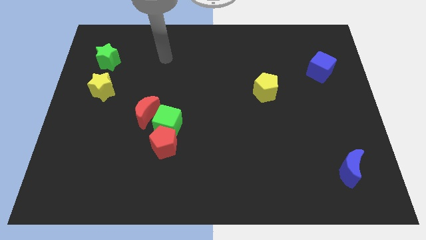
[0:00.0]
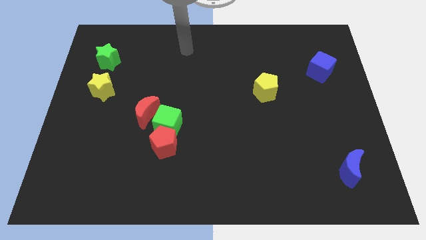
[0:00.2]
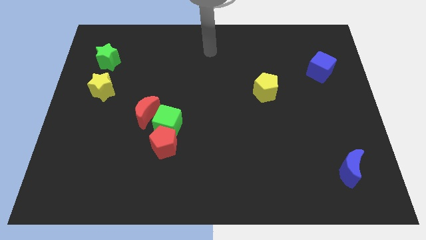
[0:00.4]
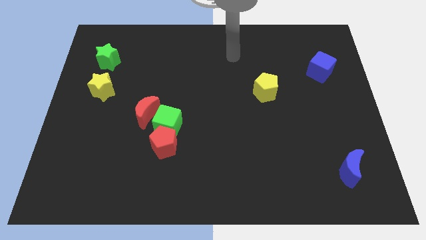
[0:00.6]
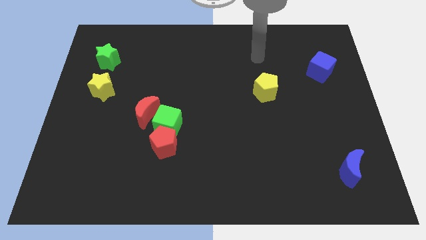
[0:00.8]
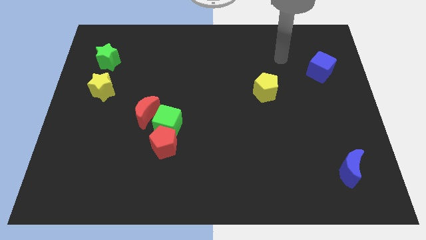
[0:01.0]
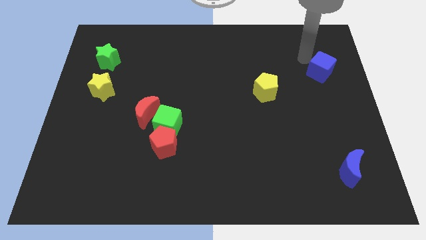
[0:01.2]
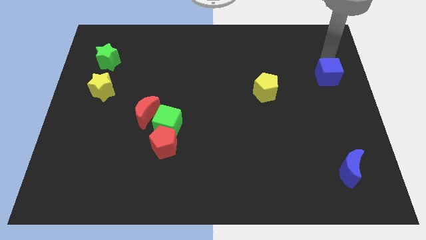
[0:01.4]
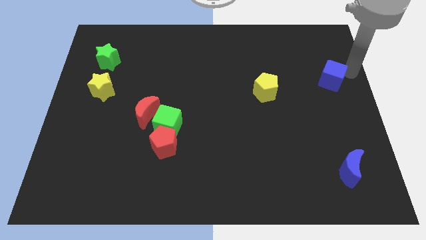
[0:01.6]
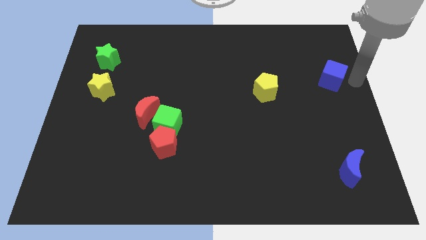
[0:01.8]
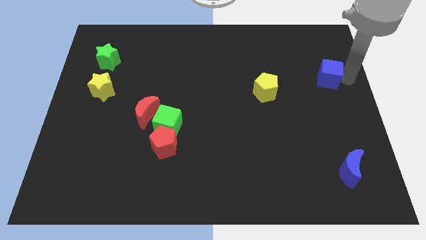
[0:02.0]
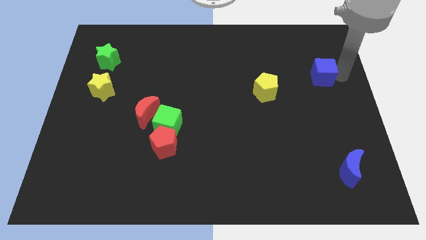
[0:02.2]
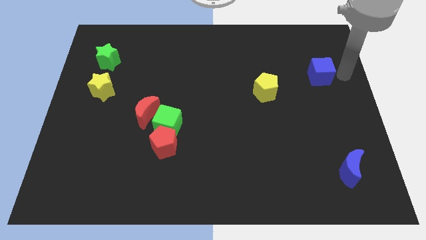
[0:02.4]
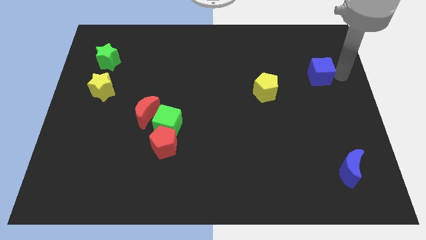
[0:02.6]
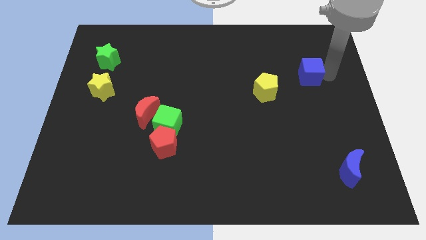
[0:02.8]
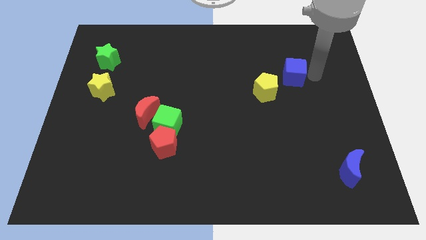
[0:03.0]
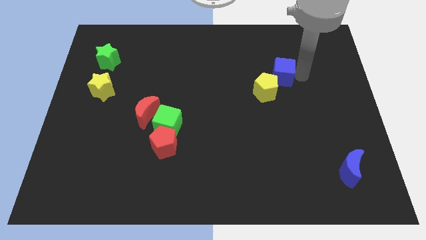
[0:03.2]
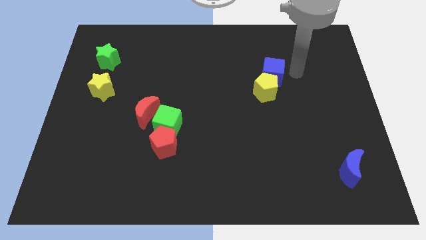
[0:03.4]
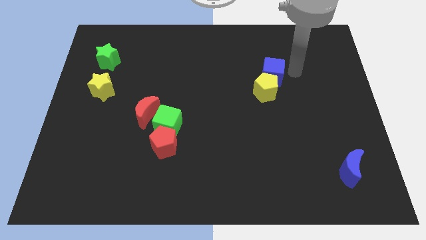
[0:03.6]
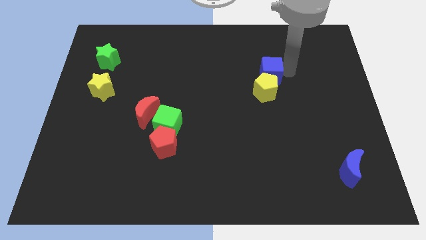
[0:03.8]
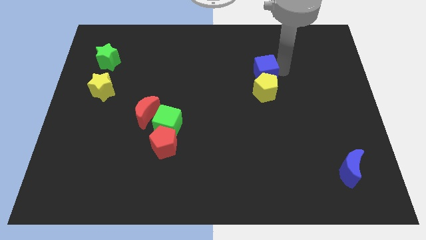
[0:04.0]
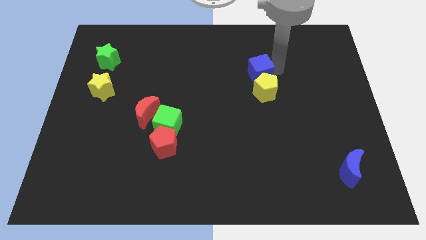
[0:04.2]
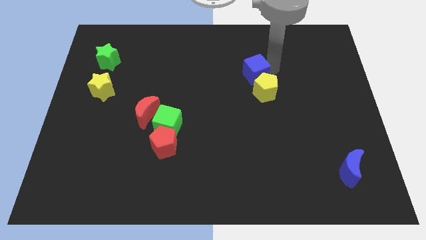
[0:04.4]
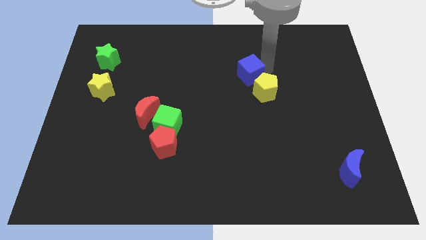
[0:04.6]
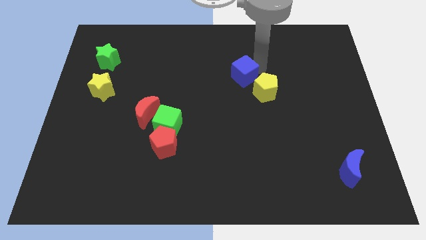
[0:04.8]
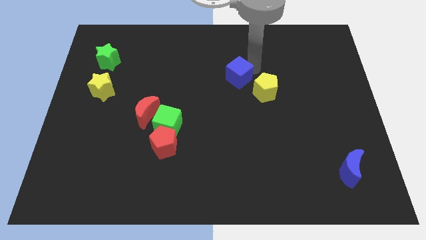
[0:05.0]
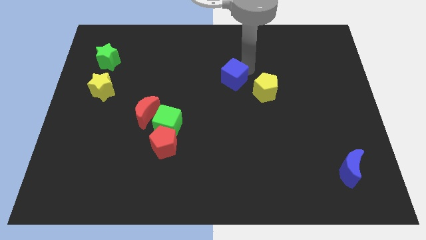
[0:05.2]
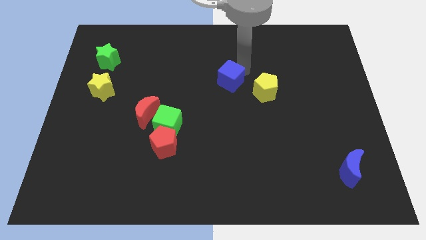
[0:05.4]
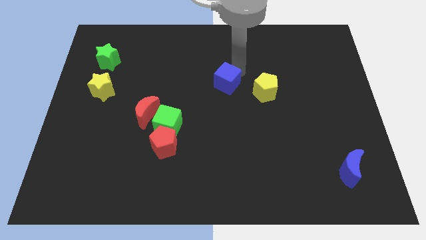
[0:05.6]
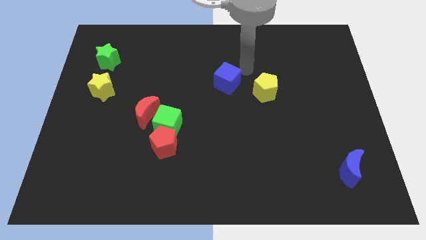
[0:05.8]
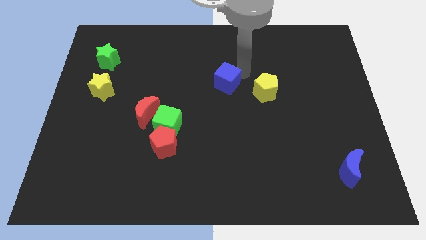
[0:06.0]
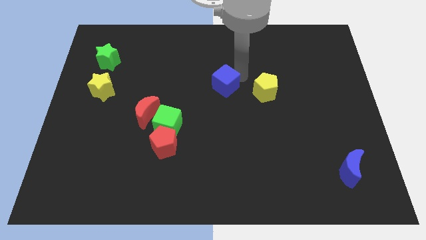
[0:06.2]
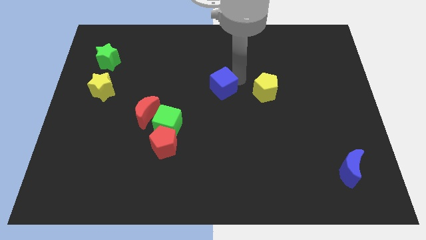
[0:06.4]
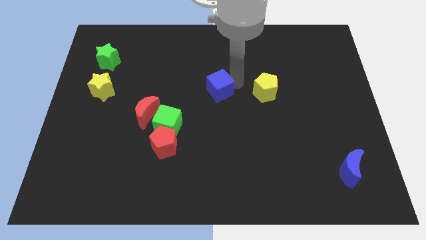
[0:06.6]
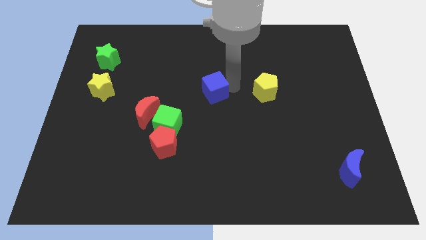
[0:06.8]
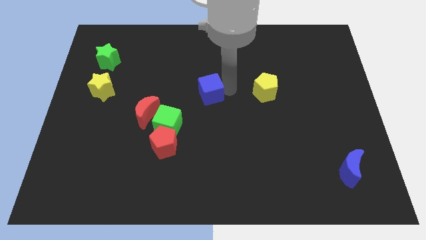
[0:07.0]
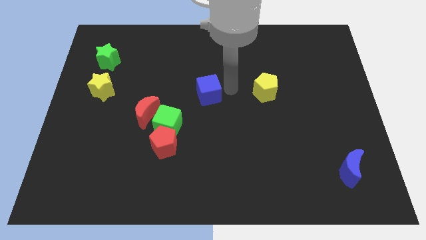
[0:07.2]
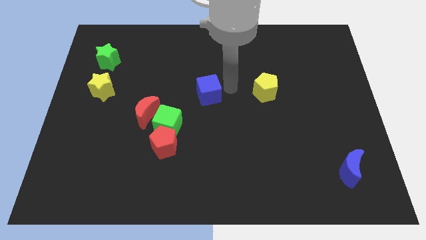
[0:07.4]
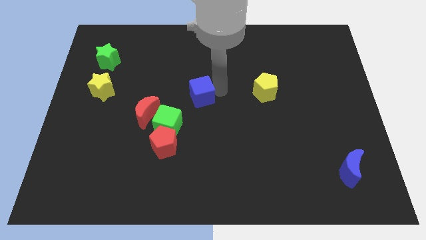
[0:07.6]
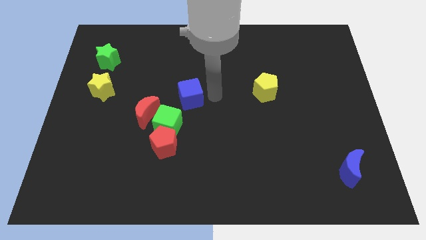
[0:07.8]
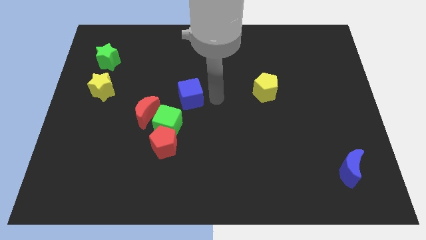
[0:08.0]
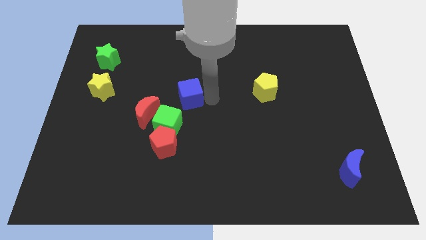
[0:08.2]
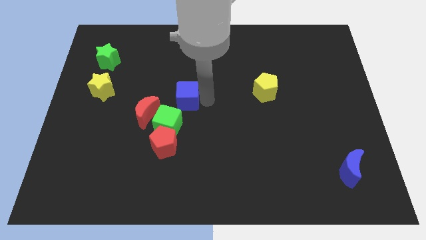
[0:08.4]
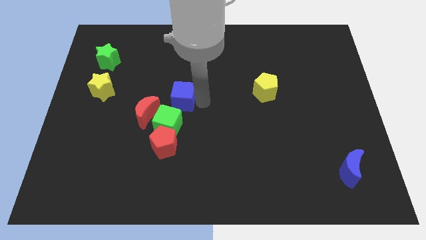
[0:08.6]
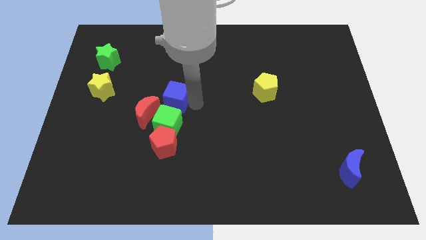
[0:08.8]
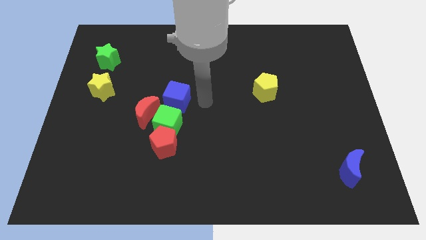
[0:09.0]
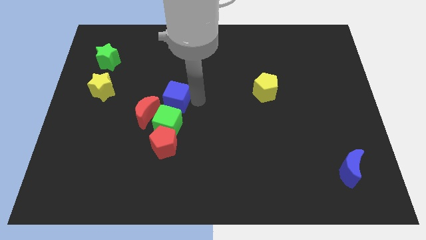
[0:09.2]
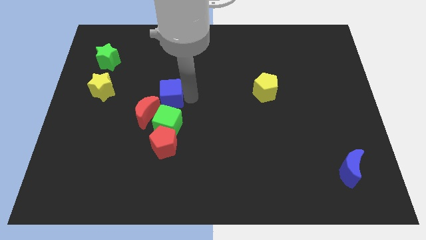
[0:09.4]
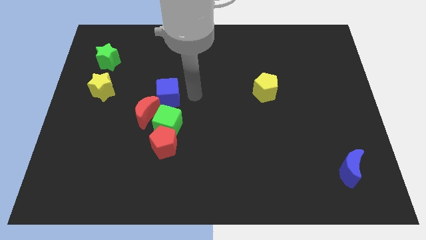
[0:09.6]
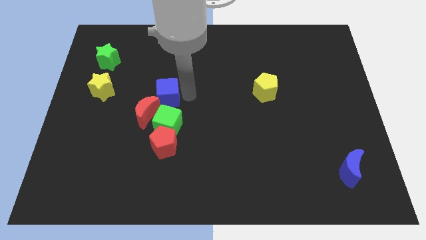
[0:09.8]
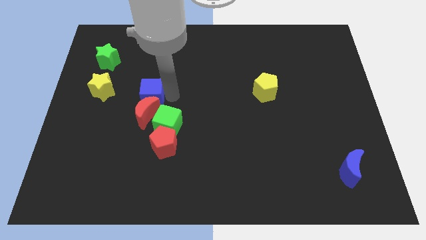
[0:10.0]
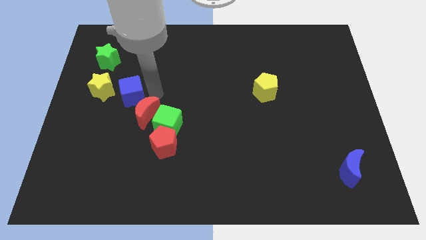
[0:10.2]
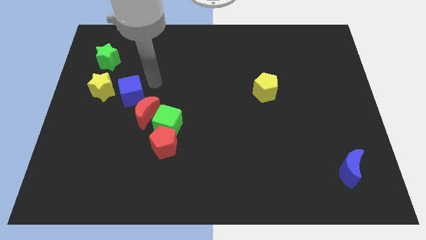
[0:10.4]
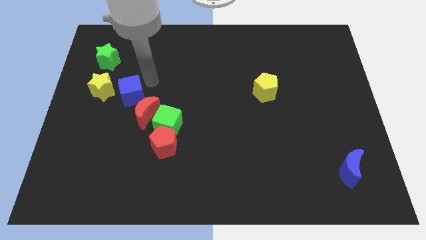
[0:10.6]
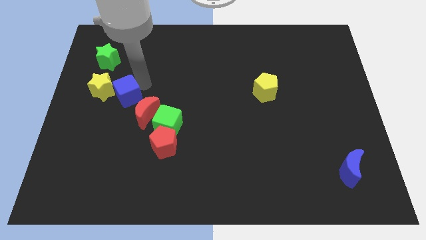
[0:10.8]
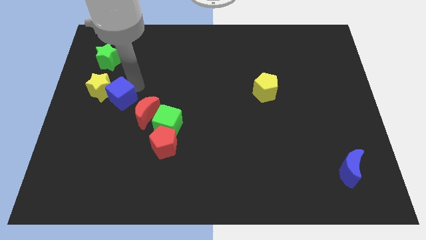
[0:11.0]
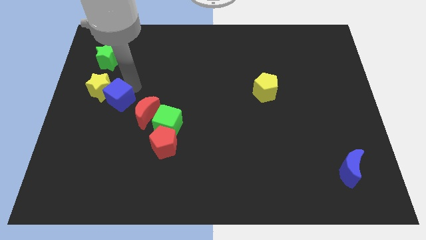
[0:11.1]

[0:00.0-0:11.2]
move the blue cube left of the red moon

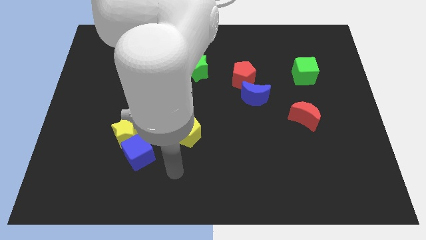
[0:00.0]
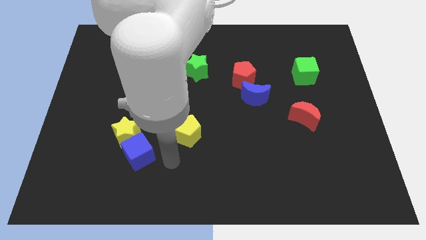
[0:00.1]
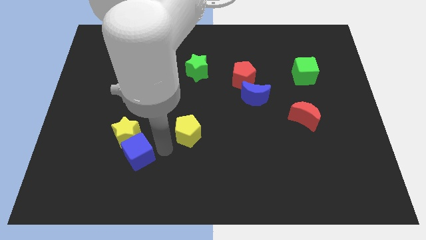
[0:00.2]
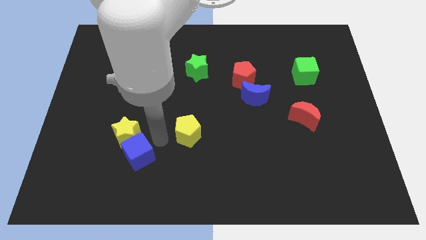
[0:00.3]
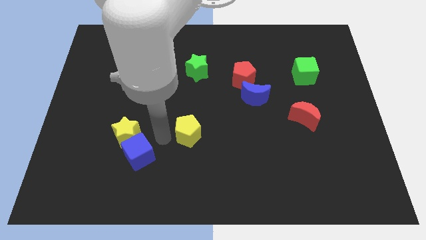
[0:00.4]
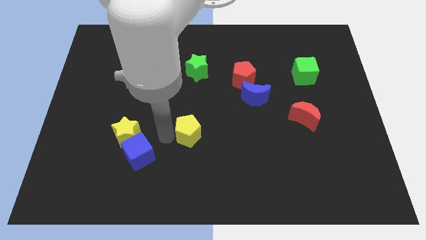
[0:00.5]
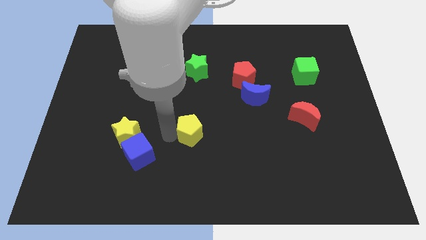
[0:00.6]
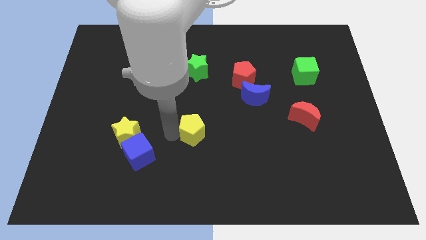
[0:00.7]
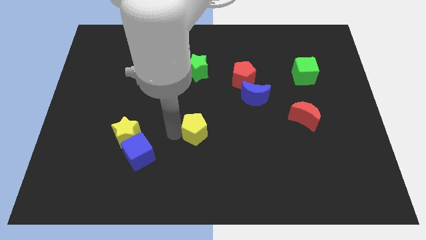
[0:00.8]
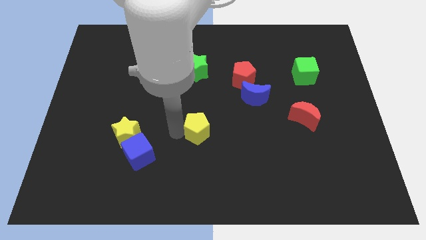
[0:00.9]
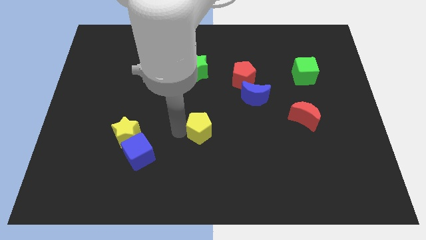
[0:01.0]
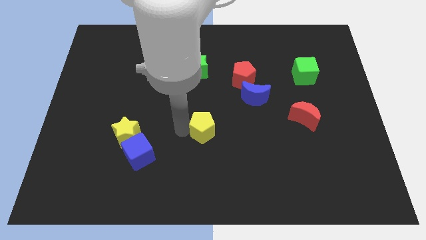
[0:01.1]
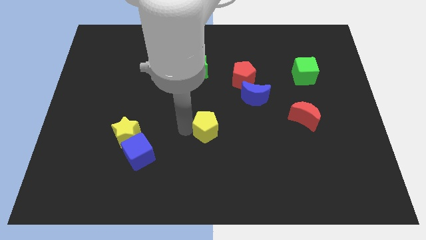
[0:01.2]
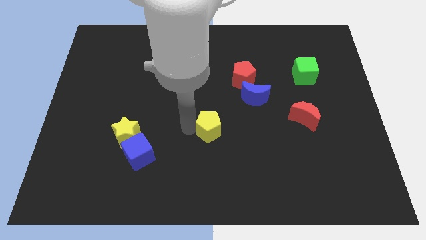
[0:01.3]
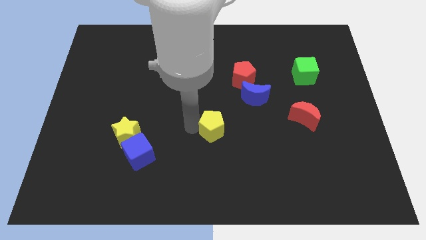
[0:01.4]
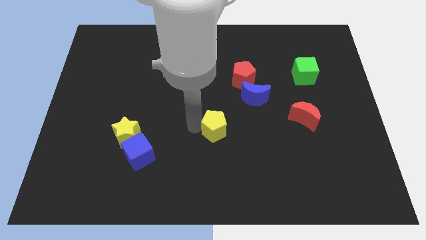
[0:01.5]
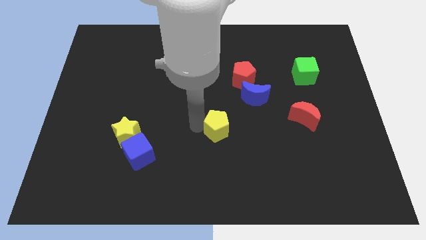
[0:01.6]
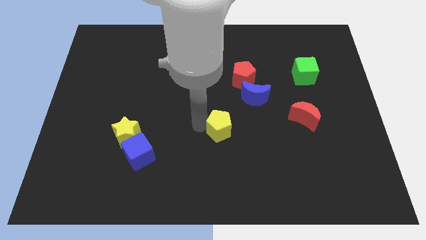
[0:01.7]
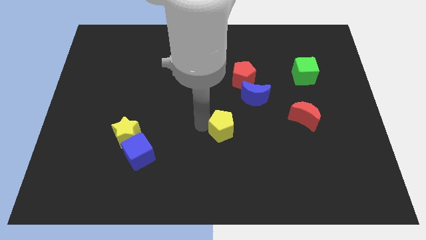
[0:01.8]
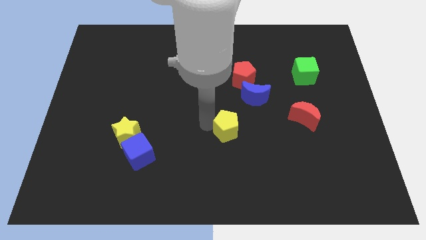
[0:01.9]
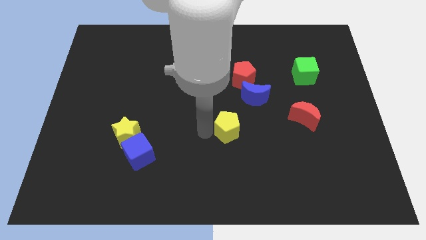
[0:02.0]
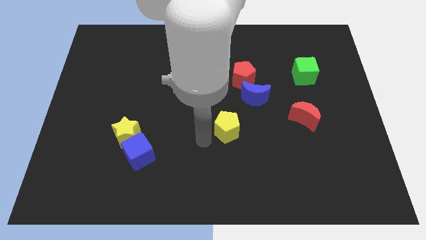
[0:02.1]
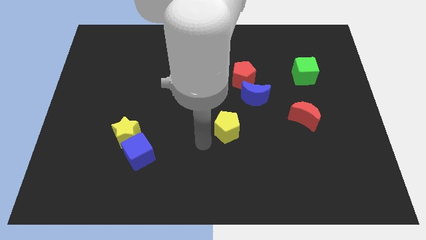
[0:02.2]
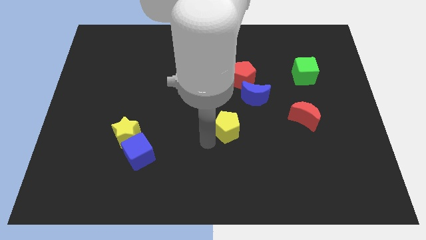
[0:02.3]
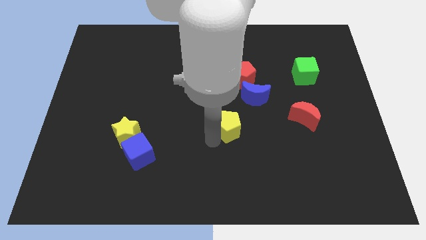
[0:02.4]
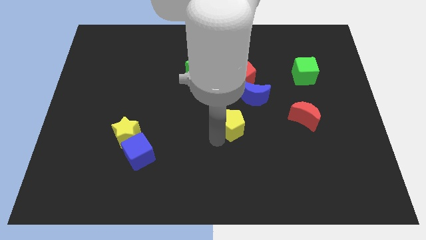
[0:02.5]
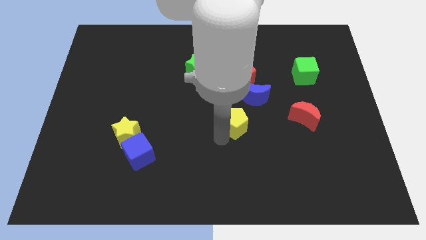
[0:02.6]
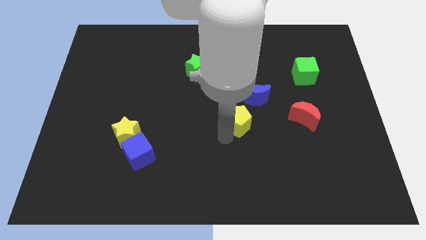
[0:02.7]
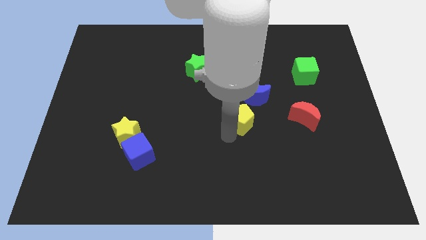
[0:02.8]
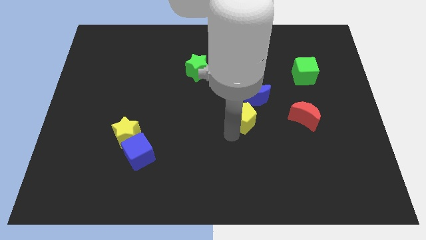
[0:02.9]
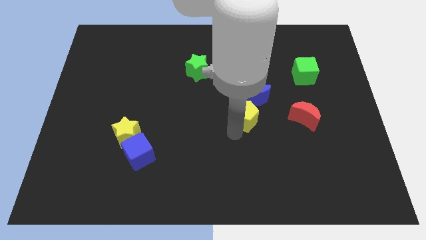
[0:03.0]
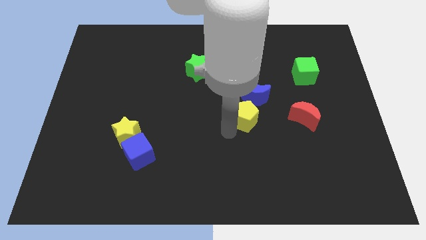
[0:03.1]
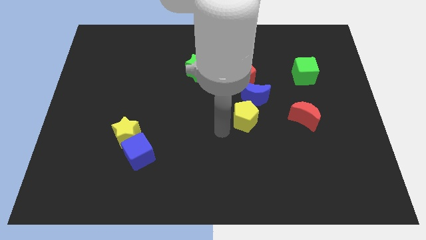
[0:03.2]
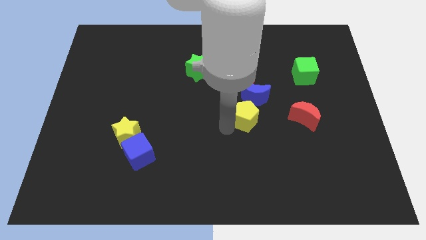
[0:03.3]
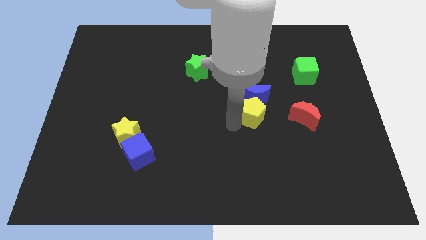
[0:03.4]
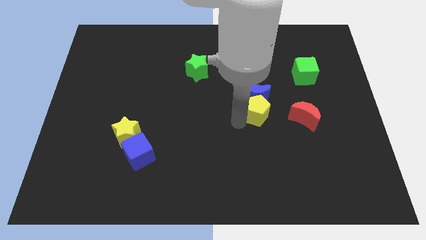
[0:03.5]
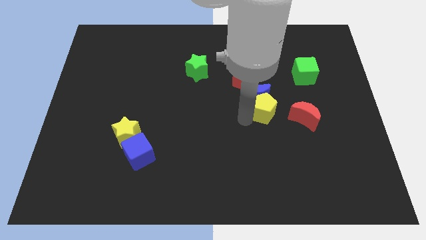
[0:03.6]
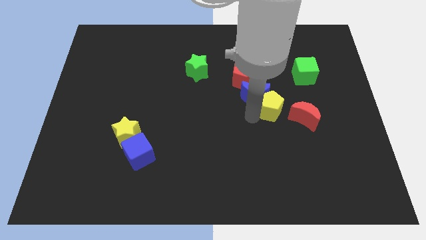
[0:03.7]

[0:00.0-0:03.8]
slide the yellow pentagon diagonally up and to the left of the red moon
